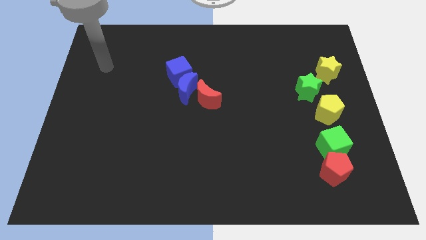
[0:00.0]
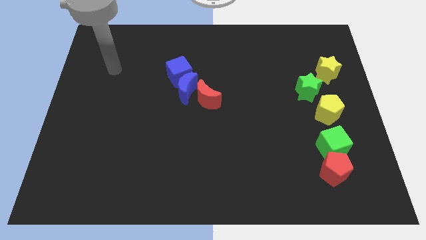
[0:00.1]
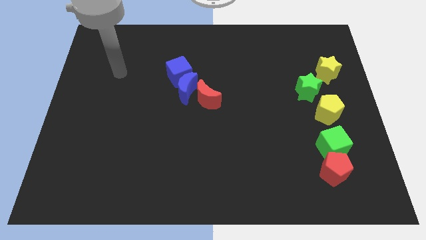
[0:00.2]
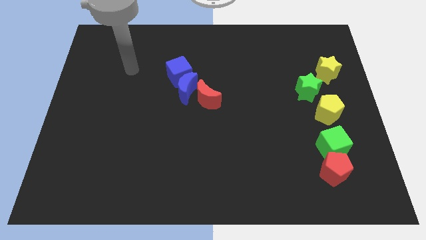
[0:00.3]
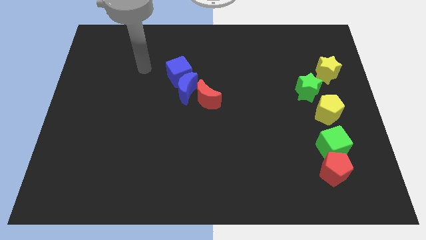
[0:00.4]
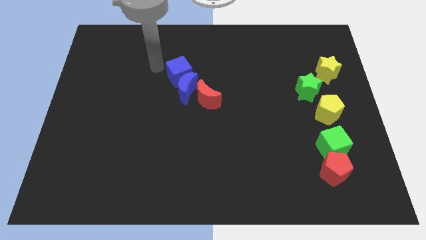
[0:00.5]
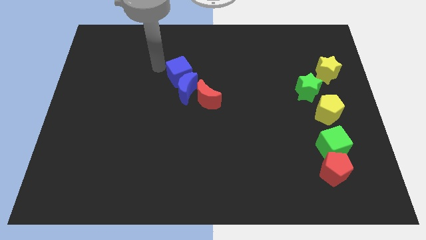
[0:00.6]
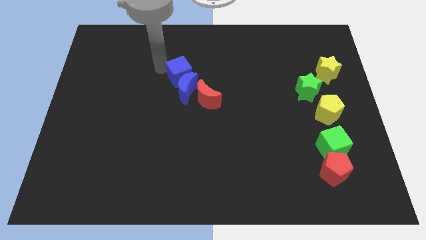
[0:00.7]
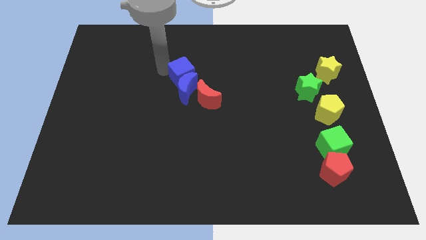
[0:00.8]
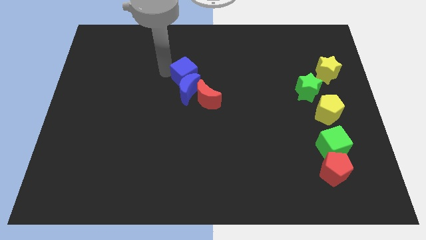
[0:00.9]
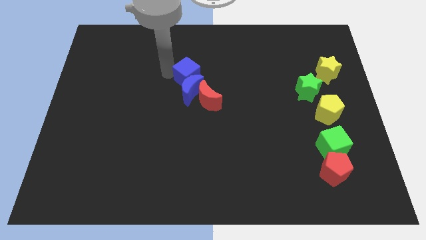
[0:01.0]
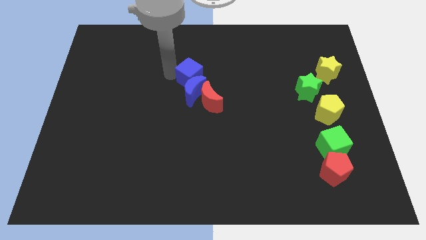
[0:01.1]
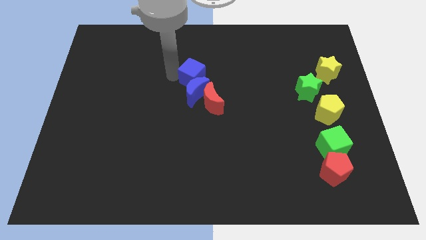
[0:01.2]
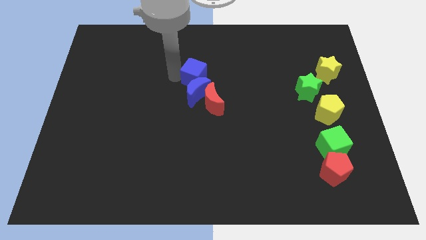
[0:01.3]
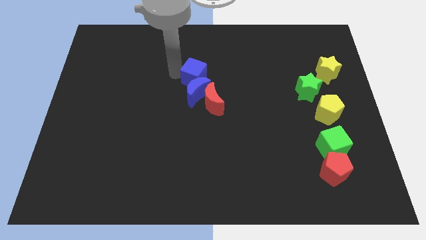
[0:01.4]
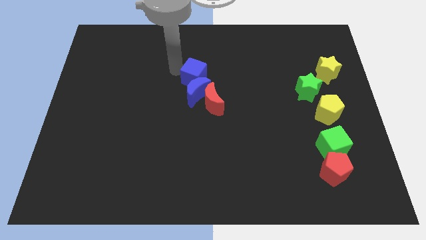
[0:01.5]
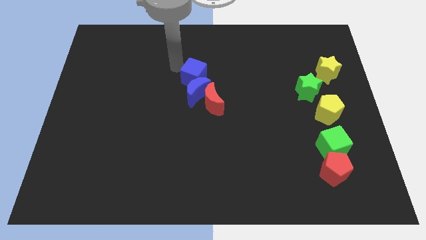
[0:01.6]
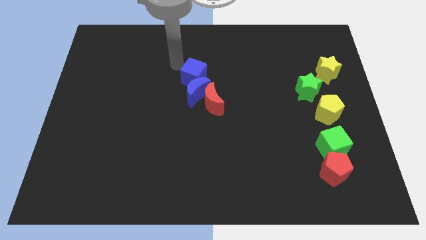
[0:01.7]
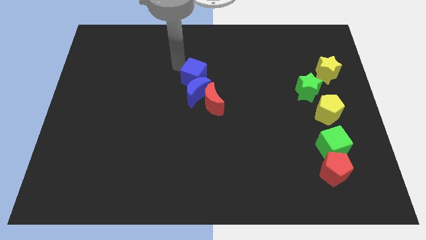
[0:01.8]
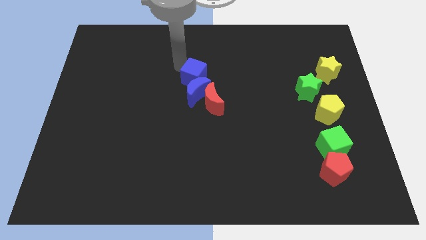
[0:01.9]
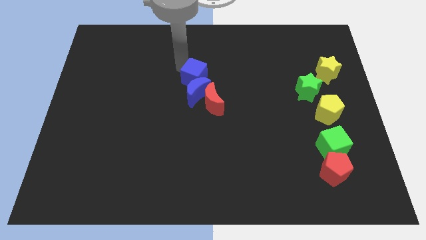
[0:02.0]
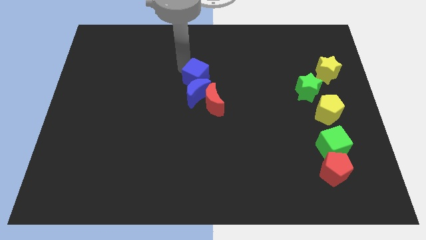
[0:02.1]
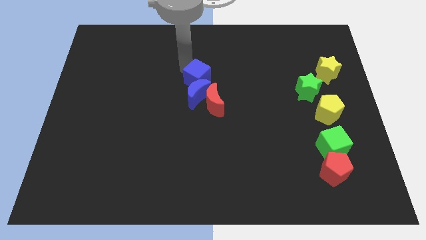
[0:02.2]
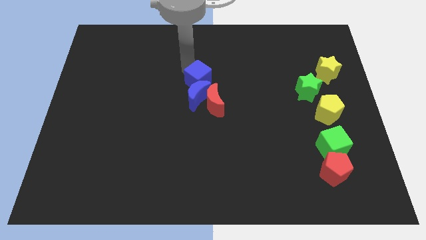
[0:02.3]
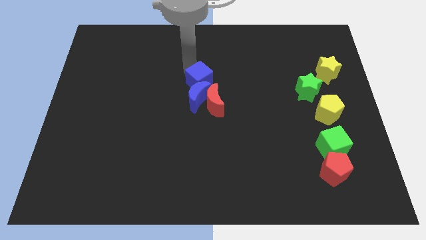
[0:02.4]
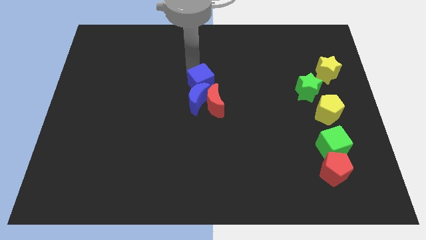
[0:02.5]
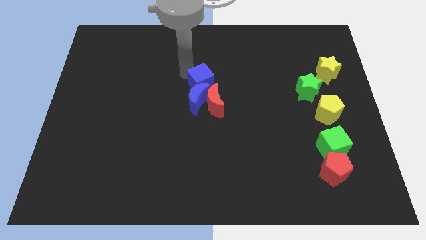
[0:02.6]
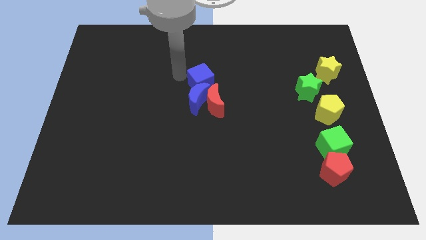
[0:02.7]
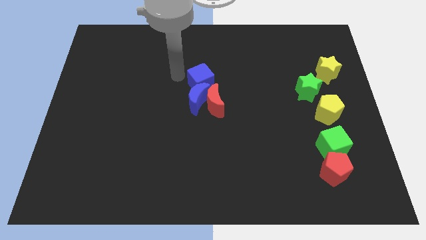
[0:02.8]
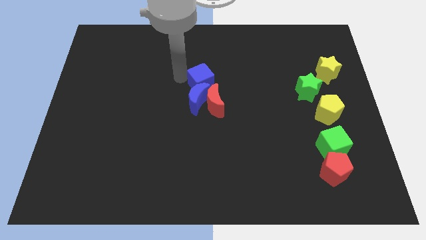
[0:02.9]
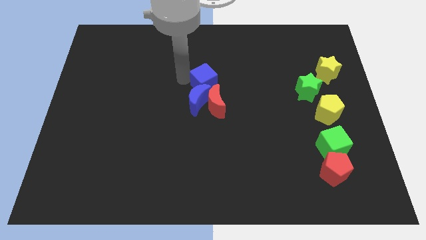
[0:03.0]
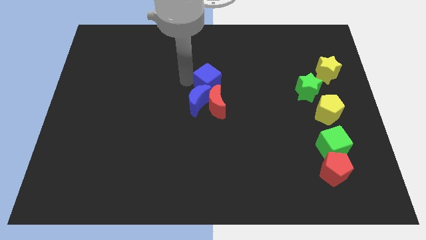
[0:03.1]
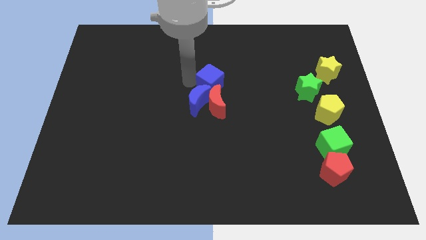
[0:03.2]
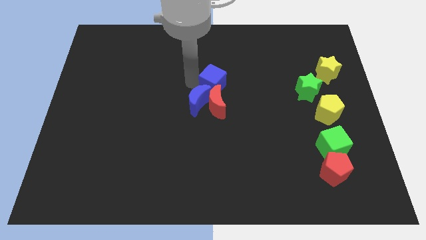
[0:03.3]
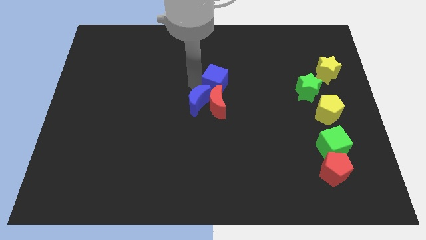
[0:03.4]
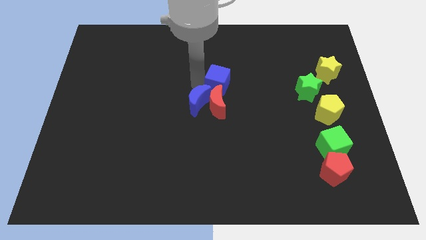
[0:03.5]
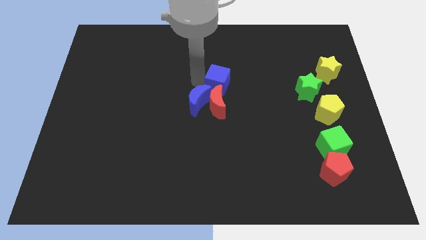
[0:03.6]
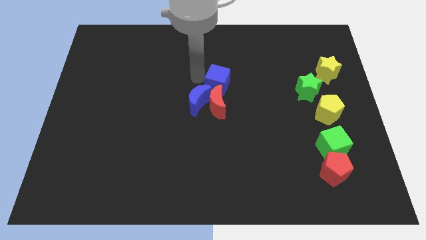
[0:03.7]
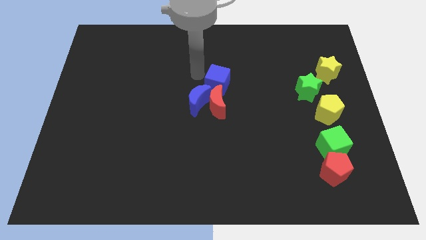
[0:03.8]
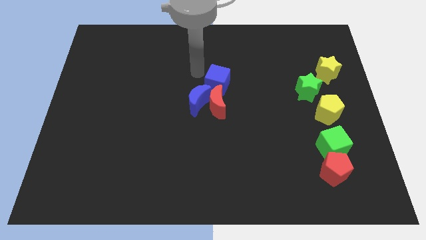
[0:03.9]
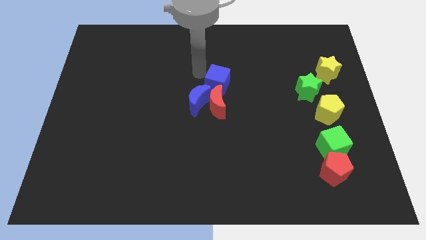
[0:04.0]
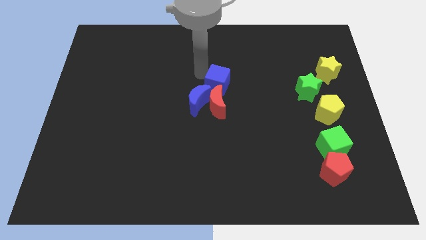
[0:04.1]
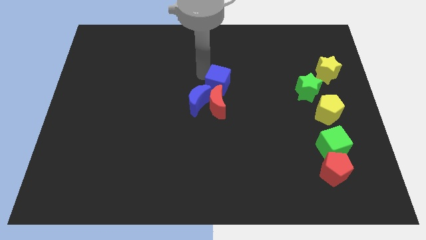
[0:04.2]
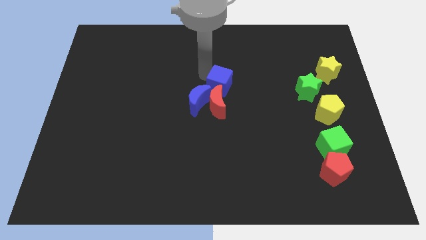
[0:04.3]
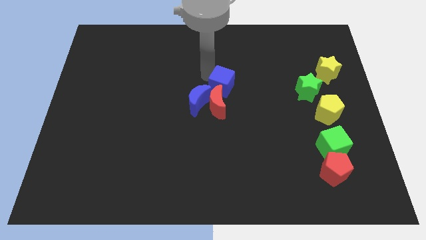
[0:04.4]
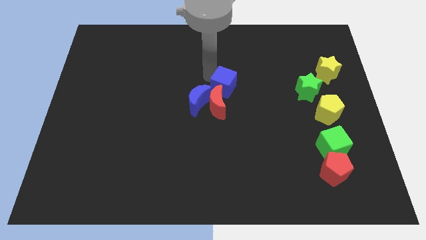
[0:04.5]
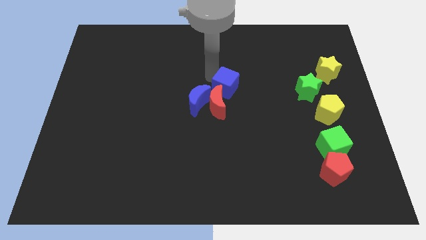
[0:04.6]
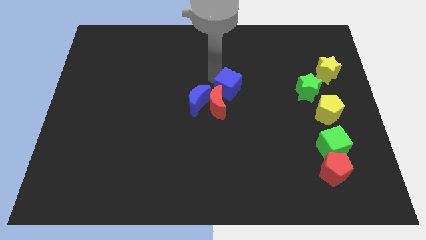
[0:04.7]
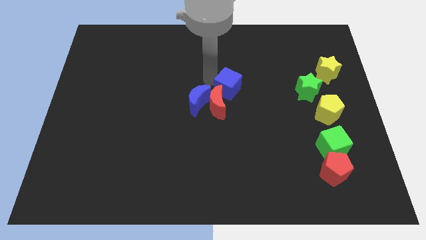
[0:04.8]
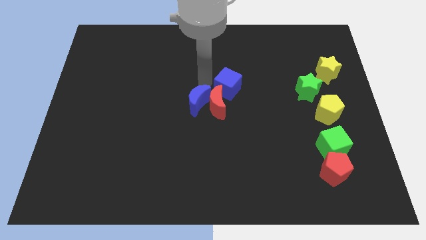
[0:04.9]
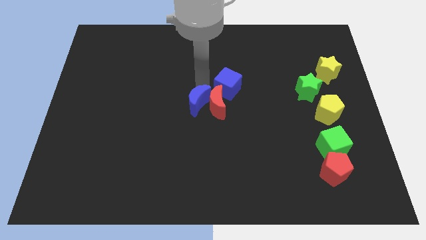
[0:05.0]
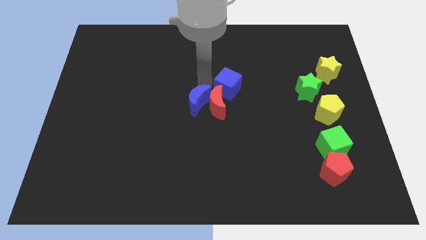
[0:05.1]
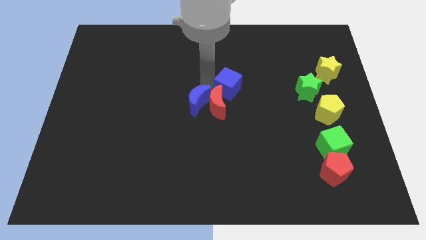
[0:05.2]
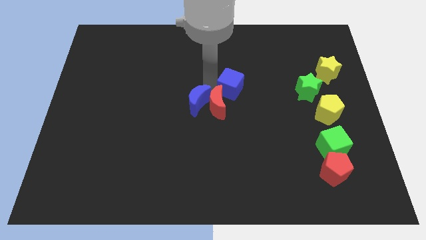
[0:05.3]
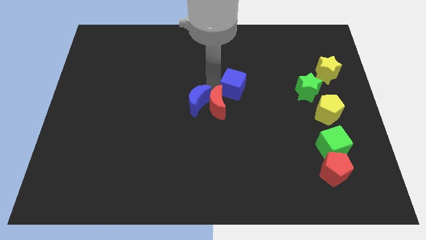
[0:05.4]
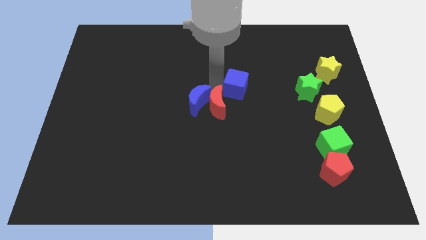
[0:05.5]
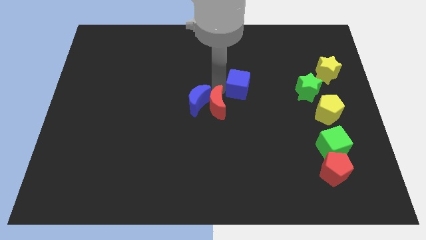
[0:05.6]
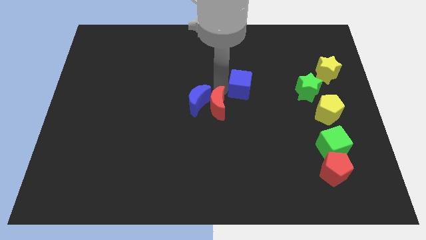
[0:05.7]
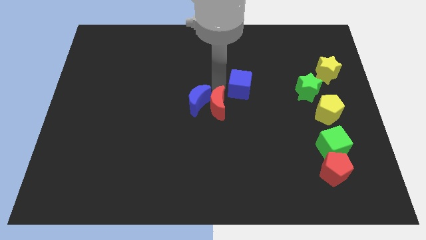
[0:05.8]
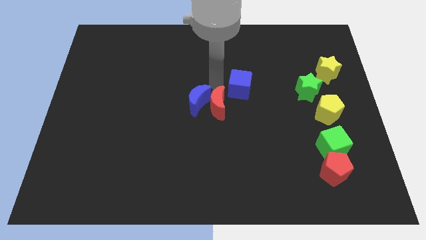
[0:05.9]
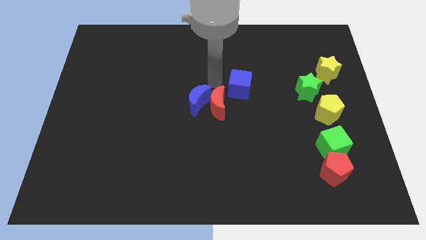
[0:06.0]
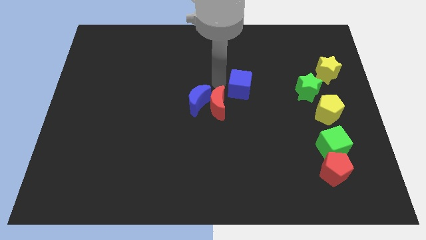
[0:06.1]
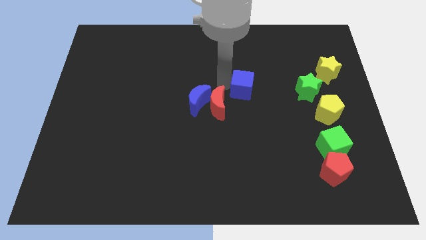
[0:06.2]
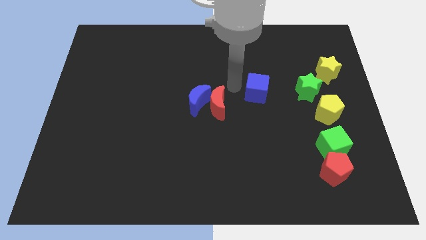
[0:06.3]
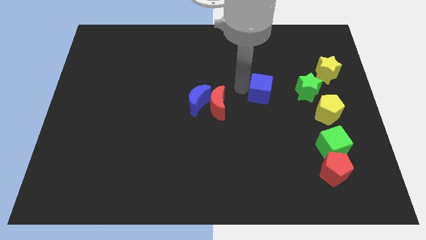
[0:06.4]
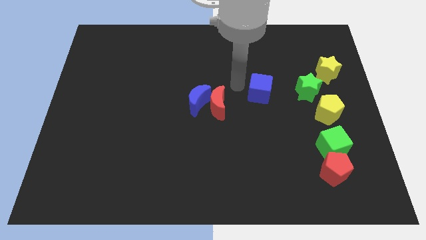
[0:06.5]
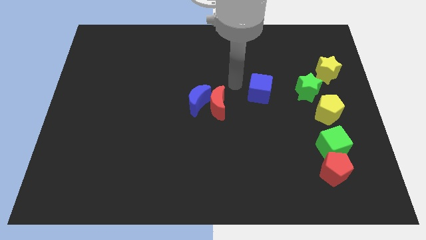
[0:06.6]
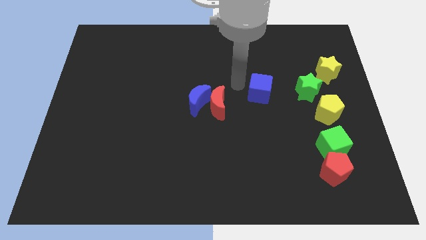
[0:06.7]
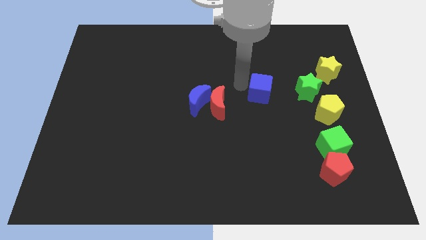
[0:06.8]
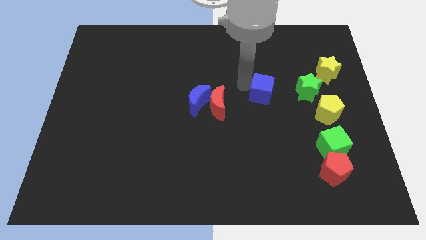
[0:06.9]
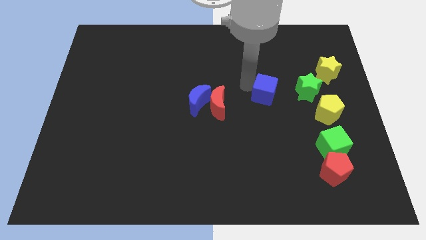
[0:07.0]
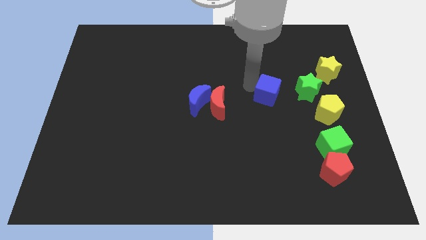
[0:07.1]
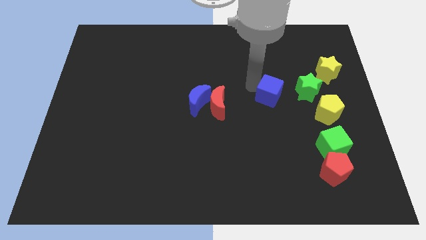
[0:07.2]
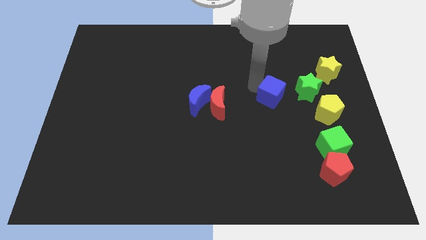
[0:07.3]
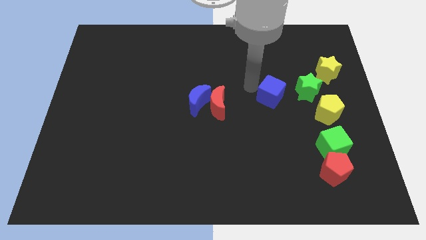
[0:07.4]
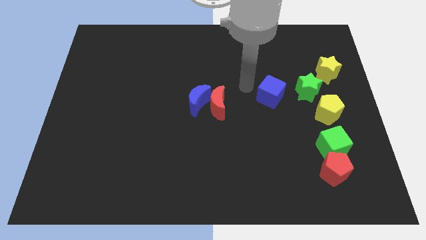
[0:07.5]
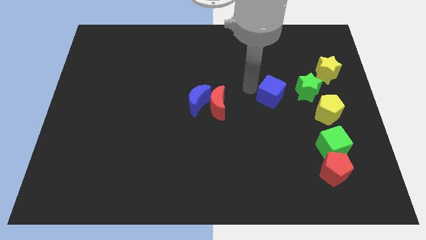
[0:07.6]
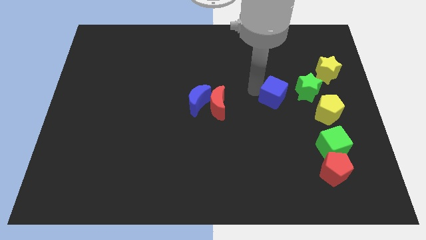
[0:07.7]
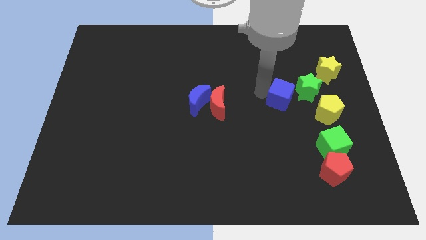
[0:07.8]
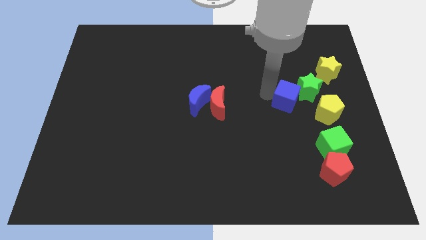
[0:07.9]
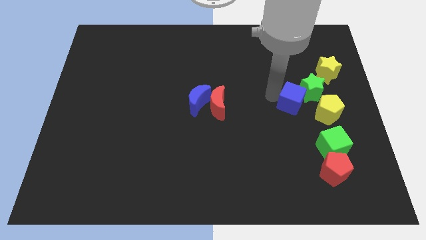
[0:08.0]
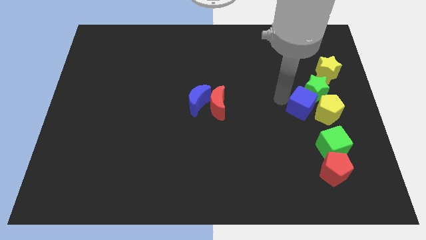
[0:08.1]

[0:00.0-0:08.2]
slide the blue cube to the yellow pentagon
